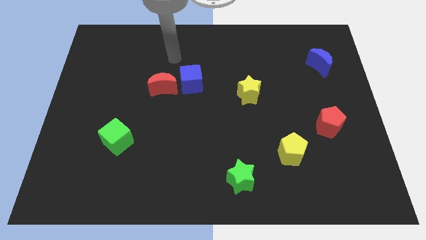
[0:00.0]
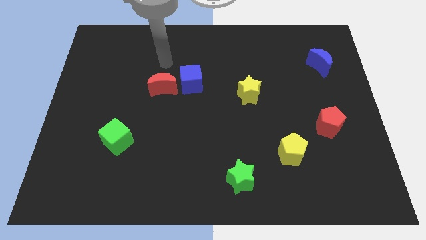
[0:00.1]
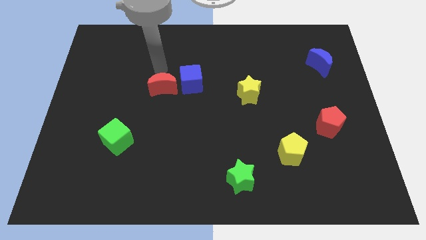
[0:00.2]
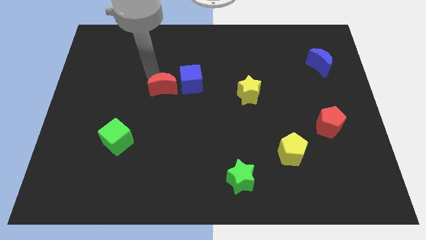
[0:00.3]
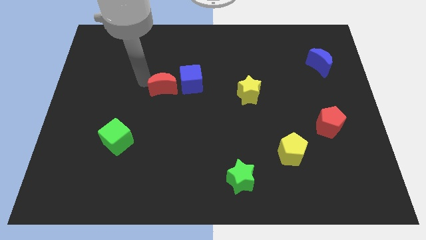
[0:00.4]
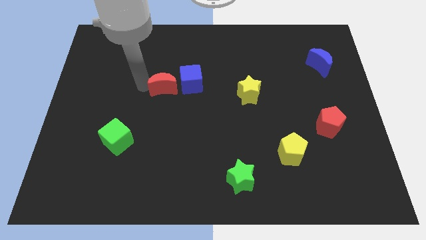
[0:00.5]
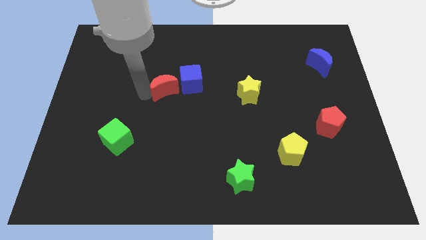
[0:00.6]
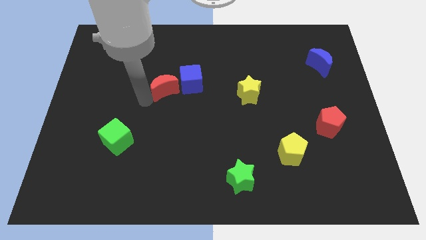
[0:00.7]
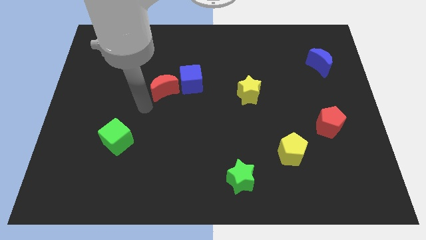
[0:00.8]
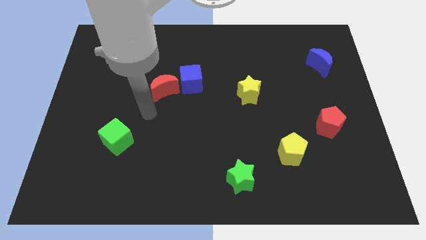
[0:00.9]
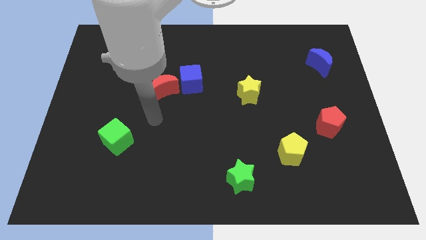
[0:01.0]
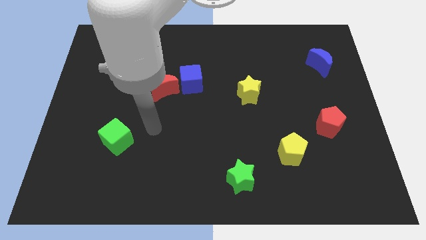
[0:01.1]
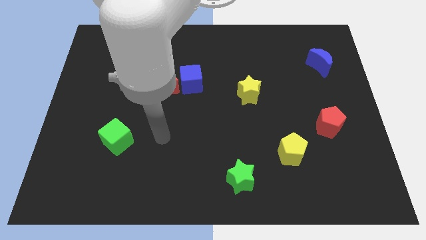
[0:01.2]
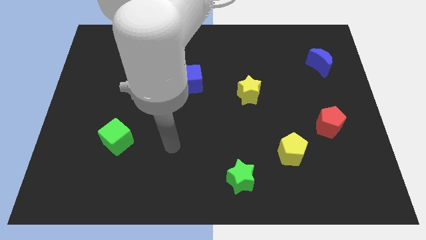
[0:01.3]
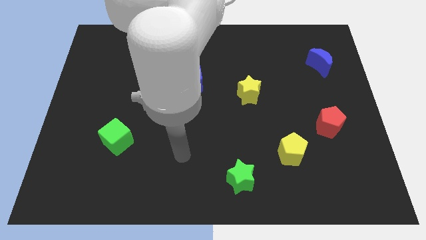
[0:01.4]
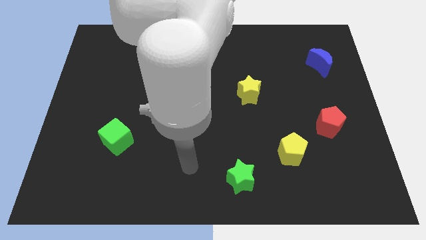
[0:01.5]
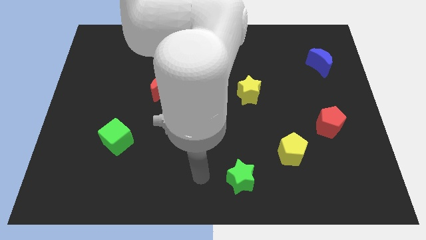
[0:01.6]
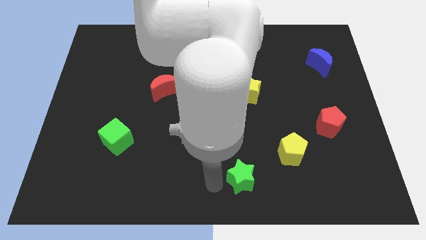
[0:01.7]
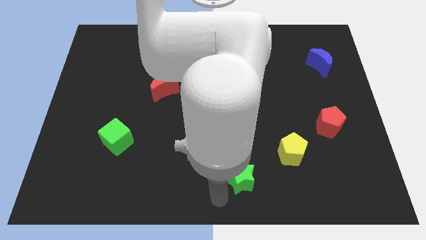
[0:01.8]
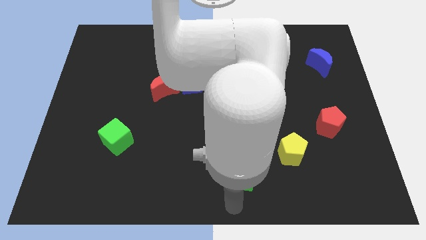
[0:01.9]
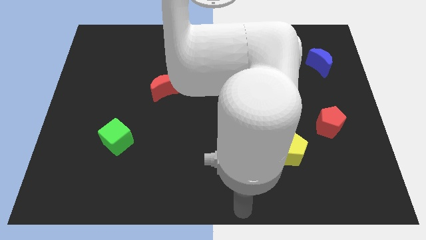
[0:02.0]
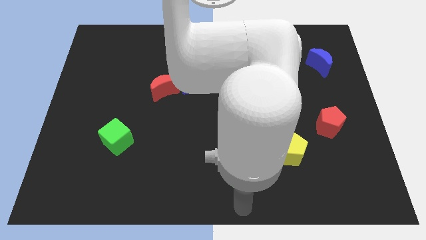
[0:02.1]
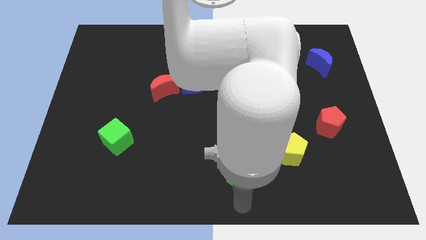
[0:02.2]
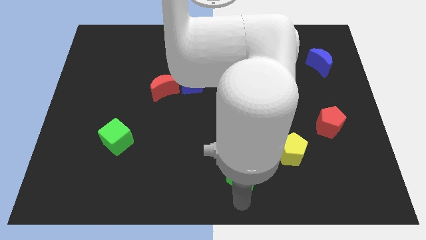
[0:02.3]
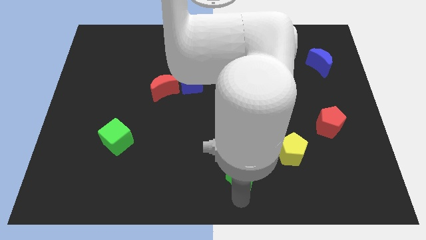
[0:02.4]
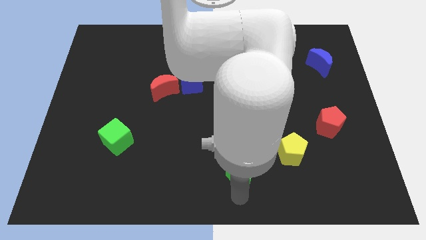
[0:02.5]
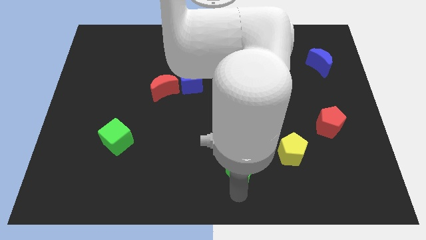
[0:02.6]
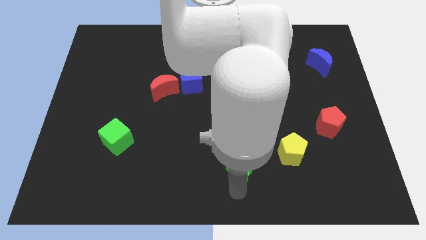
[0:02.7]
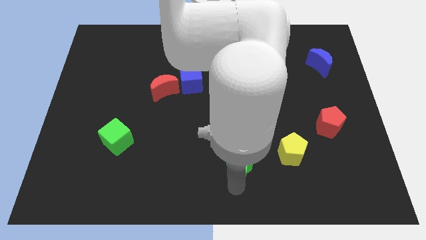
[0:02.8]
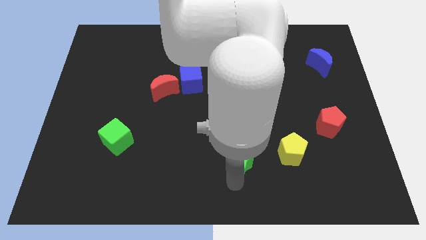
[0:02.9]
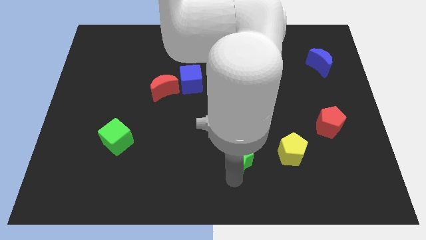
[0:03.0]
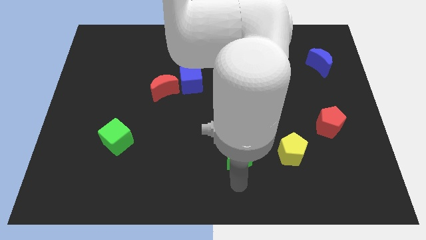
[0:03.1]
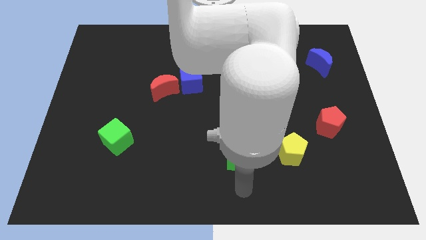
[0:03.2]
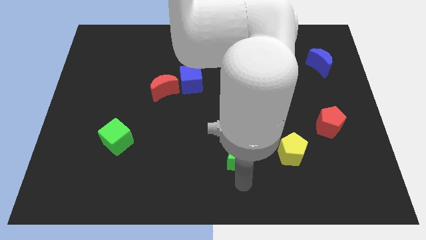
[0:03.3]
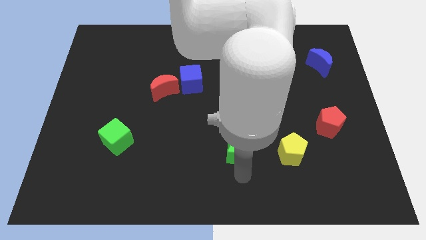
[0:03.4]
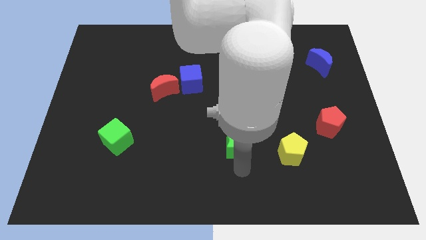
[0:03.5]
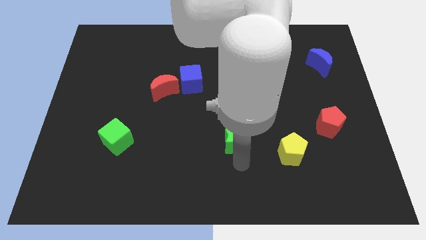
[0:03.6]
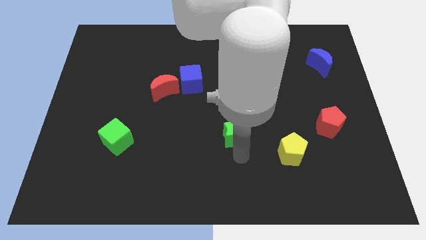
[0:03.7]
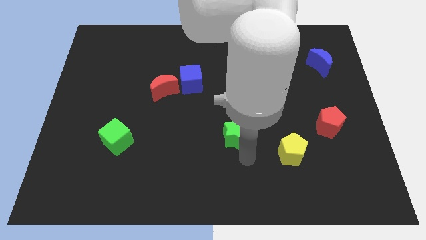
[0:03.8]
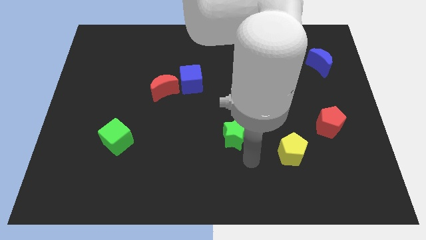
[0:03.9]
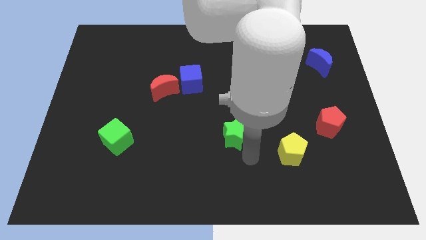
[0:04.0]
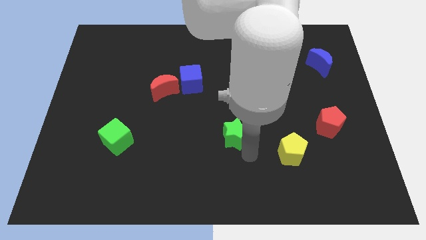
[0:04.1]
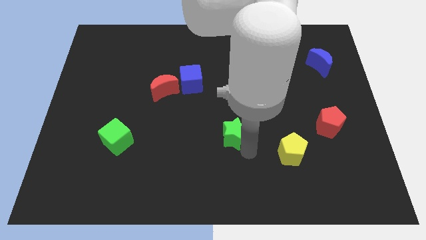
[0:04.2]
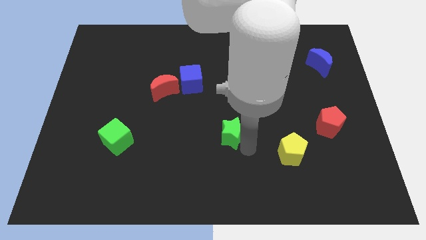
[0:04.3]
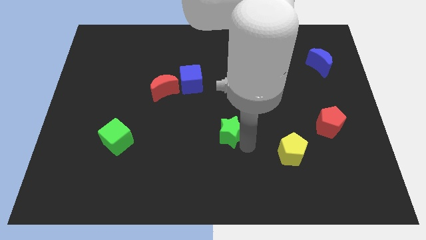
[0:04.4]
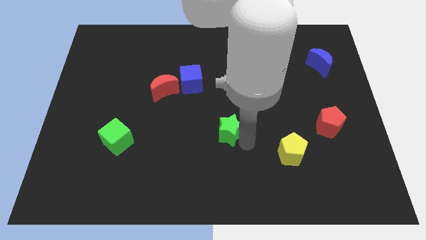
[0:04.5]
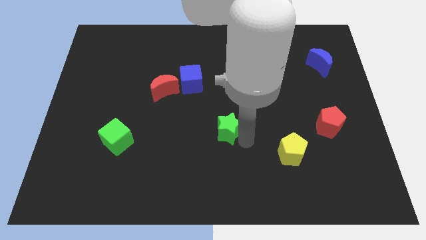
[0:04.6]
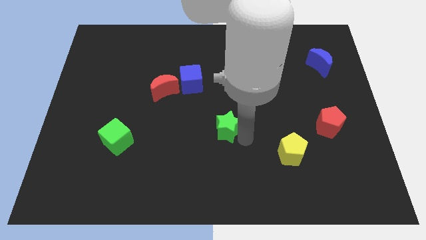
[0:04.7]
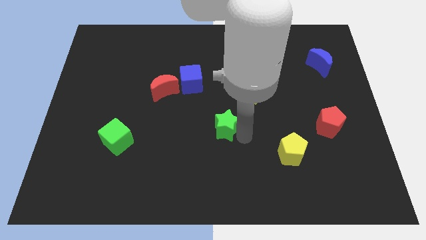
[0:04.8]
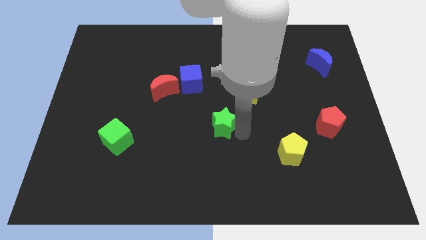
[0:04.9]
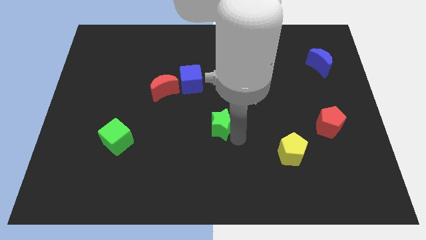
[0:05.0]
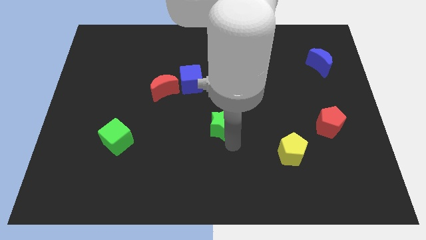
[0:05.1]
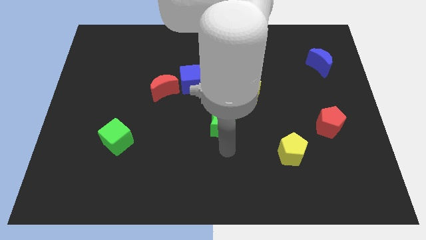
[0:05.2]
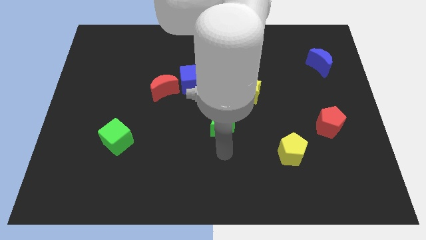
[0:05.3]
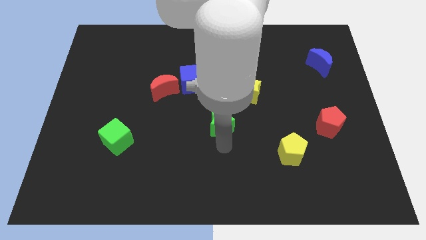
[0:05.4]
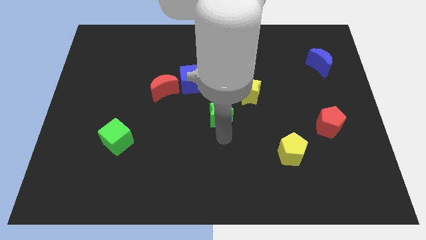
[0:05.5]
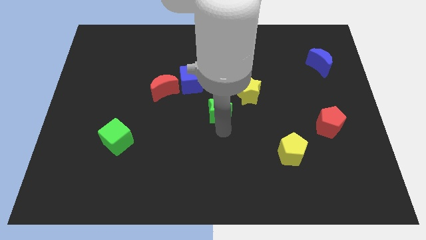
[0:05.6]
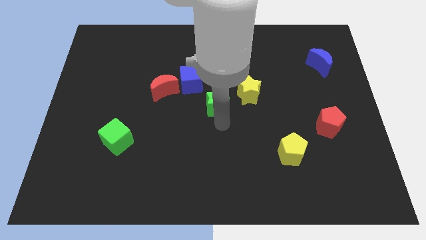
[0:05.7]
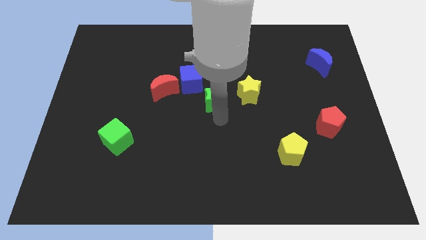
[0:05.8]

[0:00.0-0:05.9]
slide the green star right of the red moon

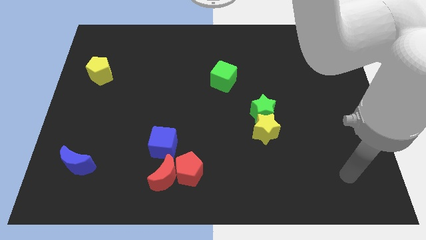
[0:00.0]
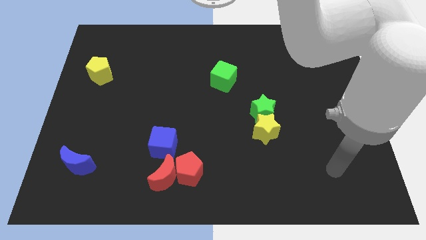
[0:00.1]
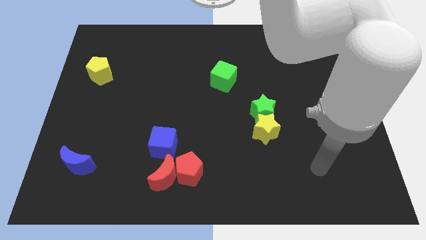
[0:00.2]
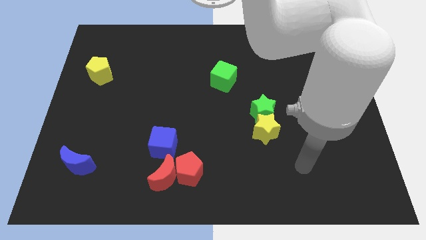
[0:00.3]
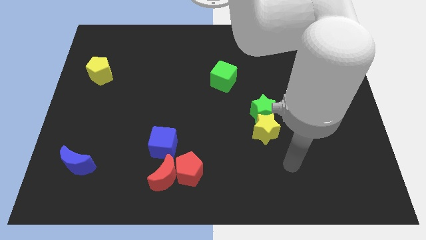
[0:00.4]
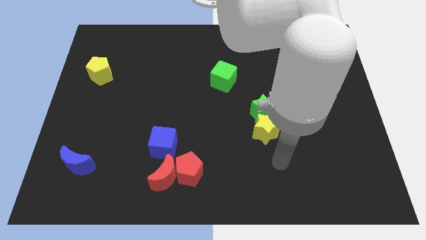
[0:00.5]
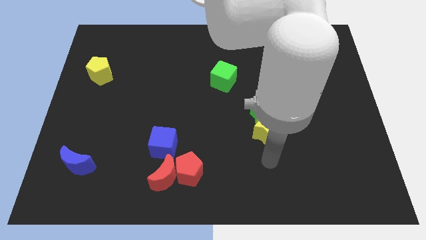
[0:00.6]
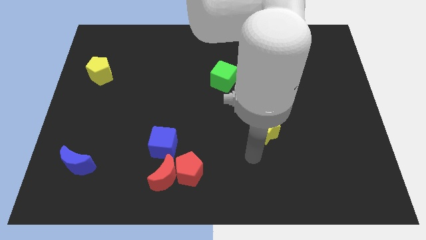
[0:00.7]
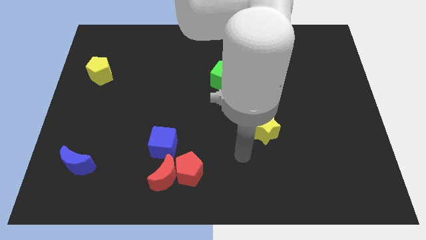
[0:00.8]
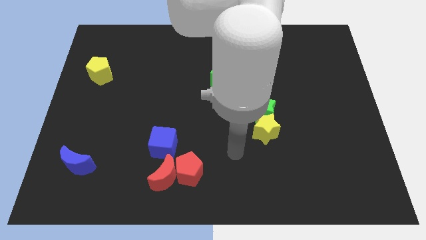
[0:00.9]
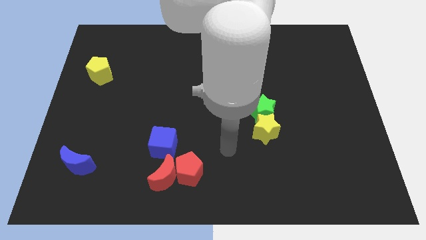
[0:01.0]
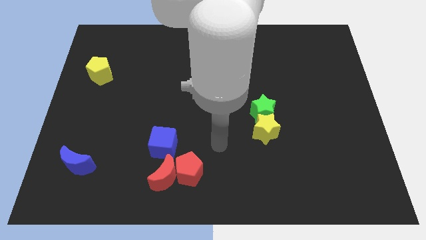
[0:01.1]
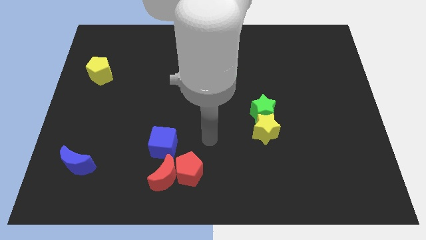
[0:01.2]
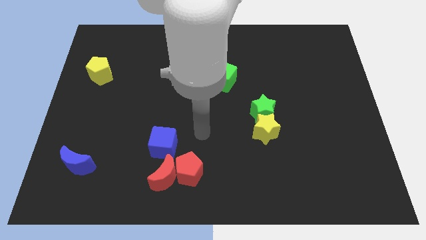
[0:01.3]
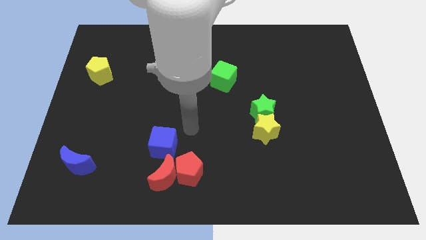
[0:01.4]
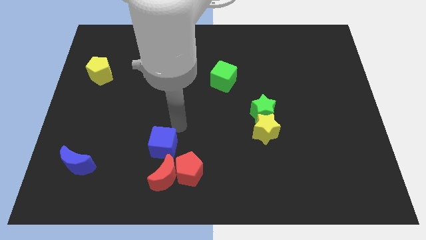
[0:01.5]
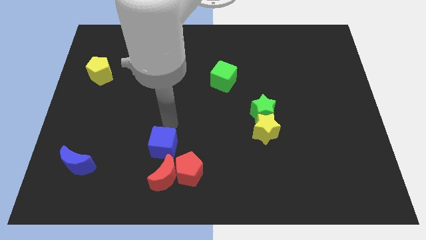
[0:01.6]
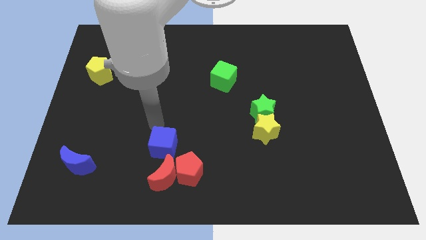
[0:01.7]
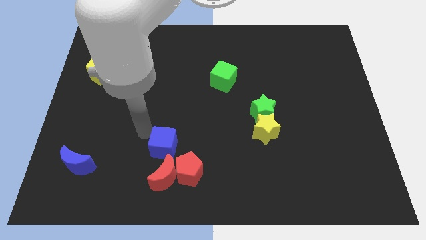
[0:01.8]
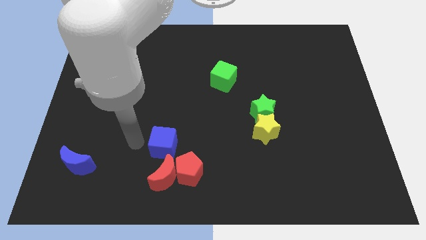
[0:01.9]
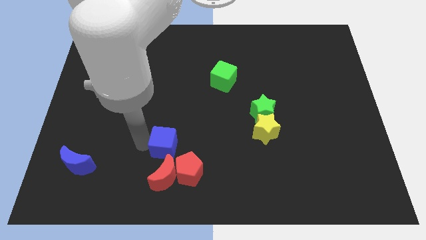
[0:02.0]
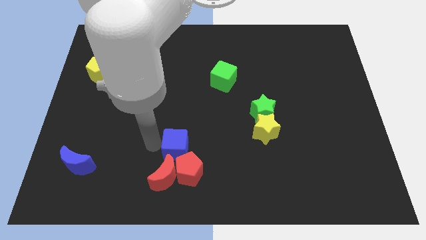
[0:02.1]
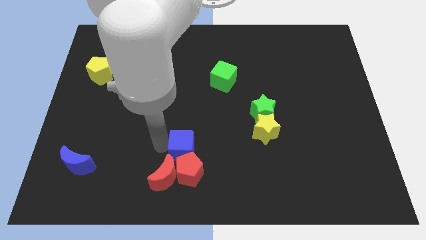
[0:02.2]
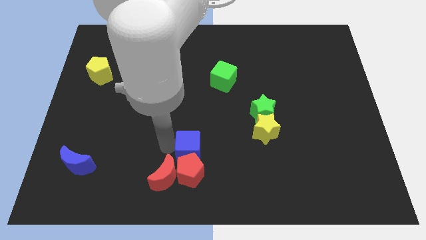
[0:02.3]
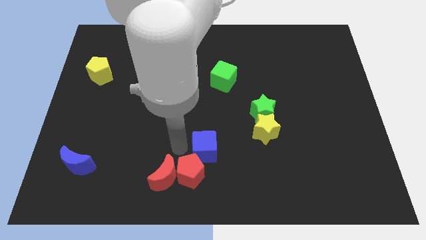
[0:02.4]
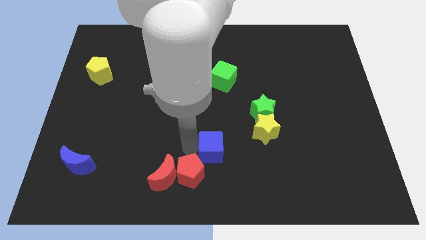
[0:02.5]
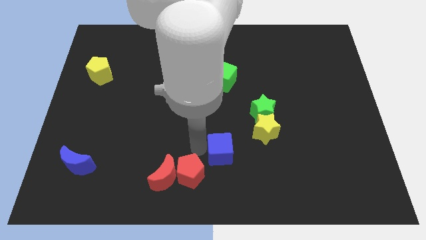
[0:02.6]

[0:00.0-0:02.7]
slide the blue cube to the bottom left of the yellow star
